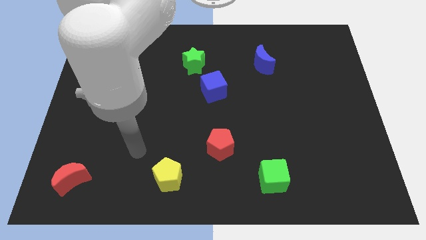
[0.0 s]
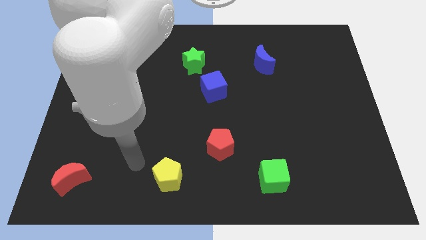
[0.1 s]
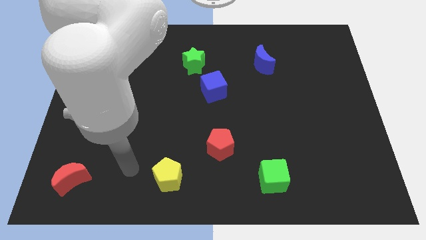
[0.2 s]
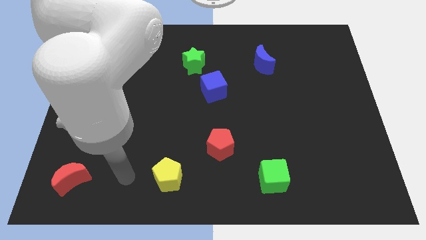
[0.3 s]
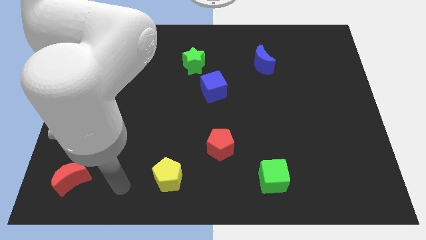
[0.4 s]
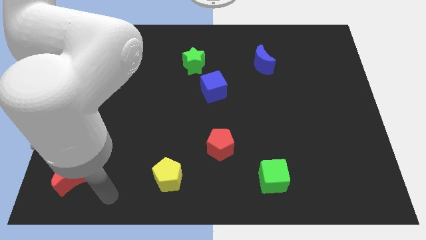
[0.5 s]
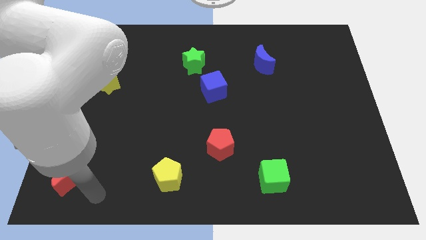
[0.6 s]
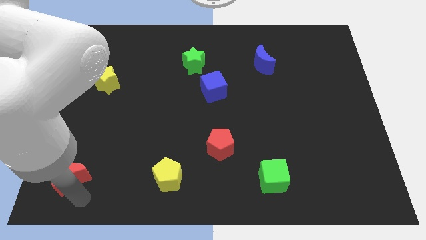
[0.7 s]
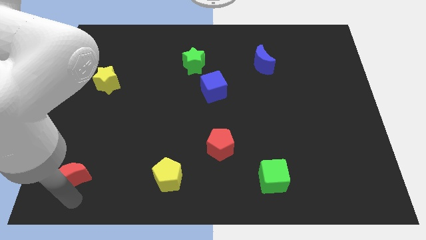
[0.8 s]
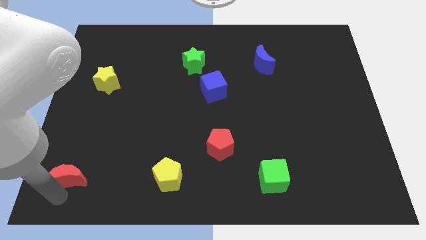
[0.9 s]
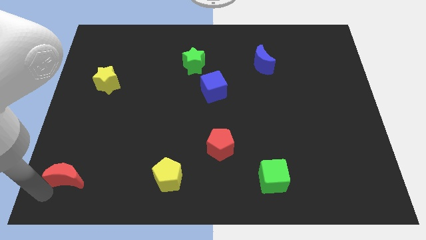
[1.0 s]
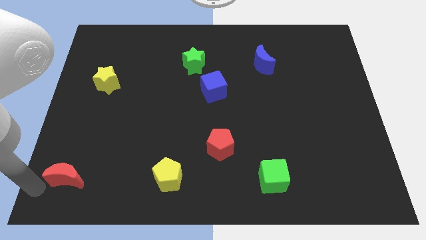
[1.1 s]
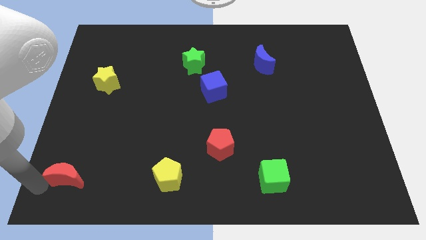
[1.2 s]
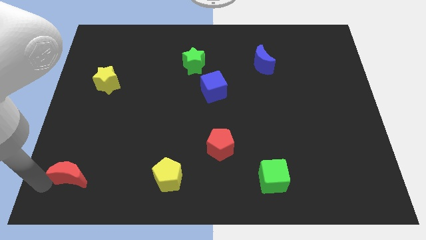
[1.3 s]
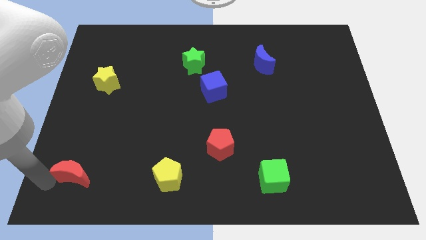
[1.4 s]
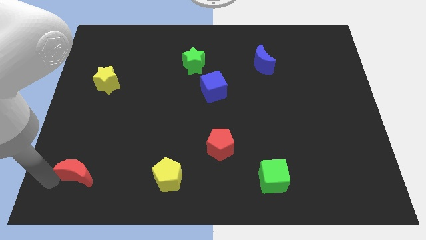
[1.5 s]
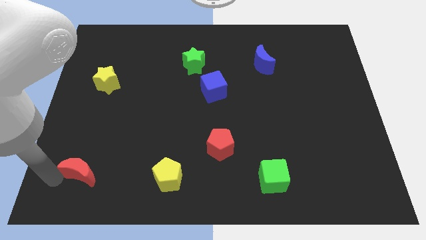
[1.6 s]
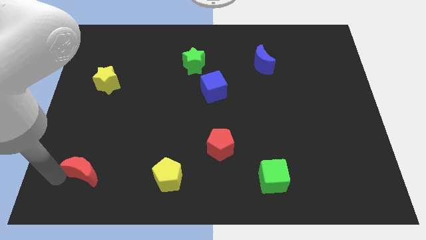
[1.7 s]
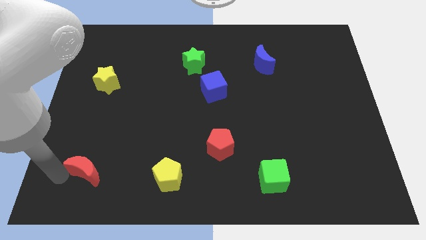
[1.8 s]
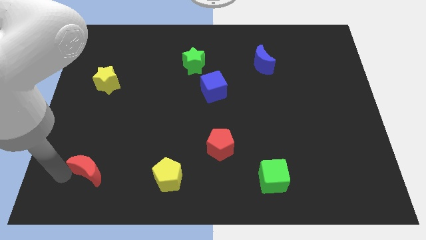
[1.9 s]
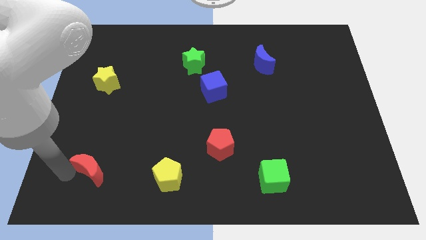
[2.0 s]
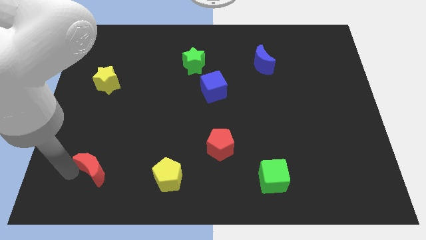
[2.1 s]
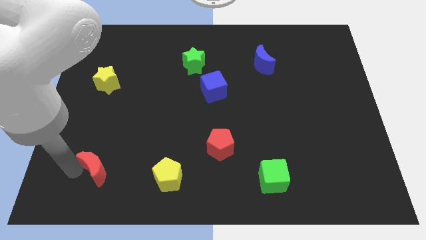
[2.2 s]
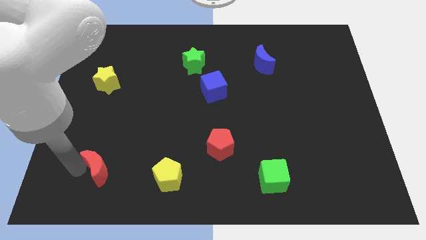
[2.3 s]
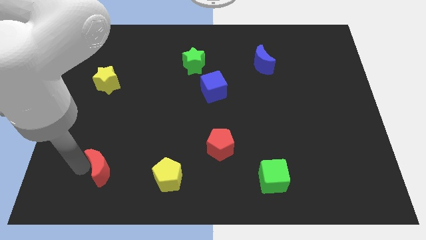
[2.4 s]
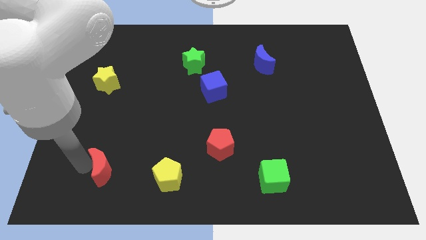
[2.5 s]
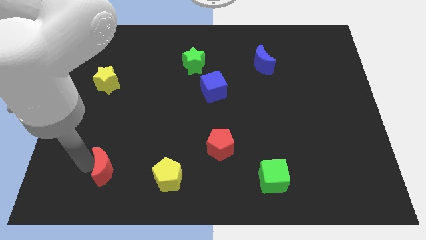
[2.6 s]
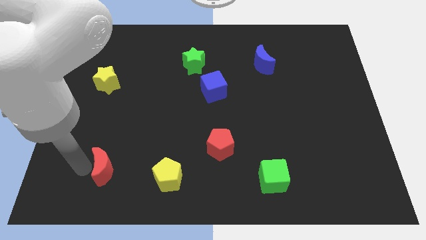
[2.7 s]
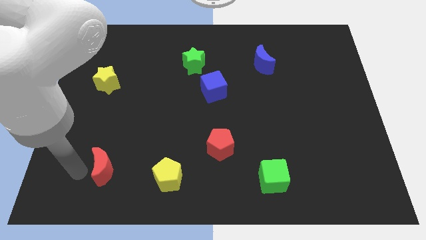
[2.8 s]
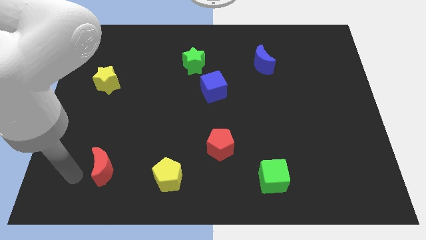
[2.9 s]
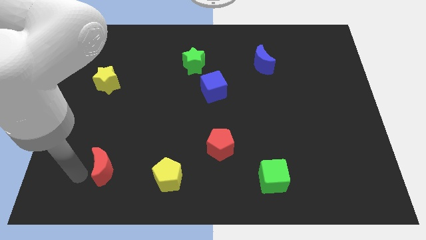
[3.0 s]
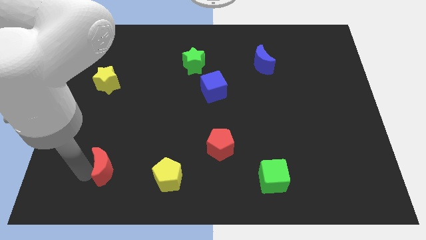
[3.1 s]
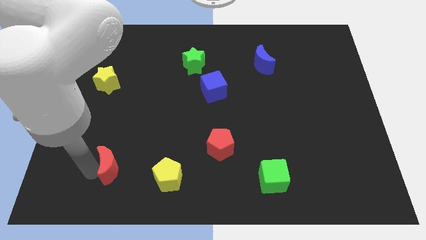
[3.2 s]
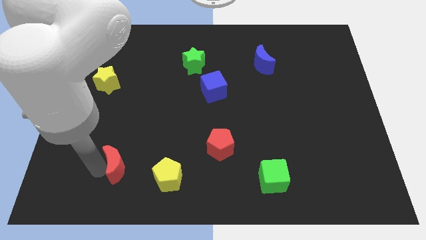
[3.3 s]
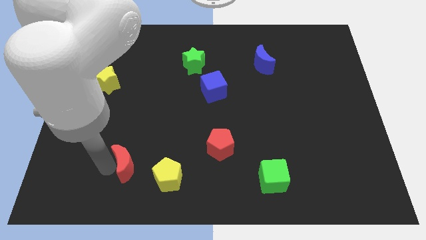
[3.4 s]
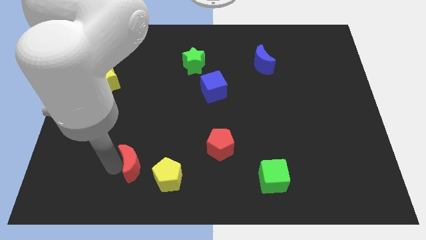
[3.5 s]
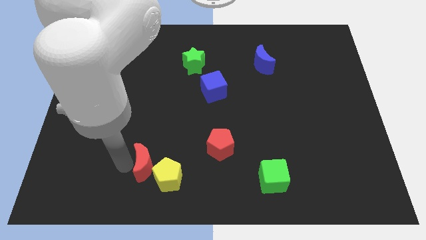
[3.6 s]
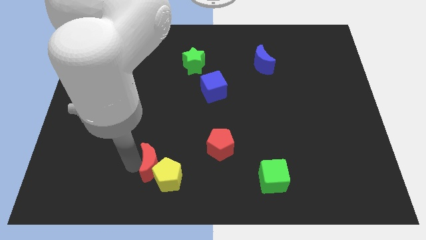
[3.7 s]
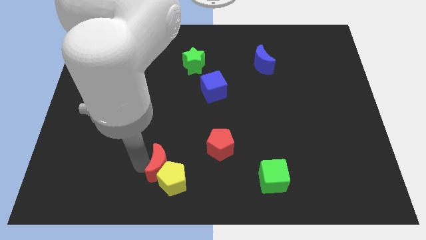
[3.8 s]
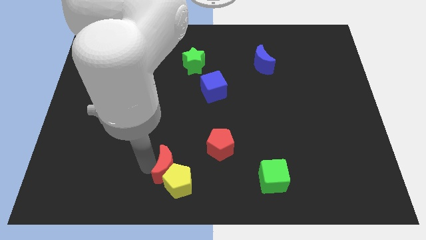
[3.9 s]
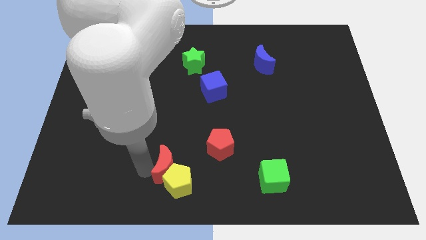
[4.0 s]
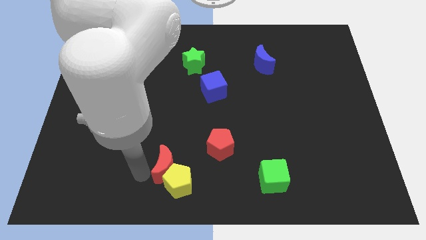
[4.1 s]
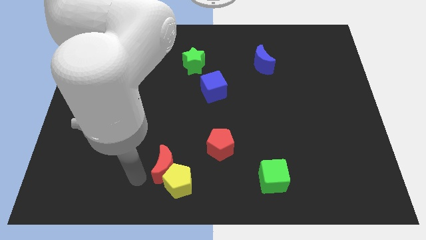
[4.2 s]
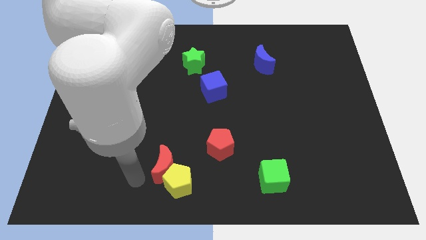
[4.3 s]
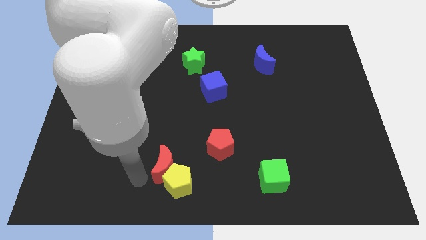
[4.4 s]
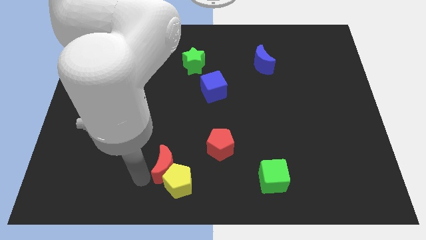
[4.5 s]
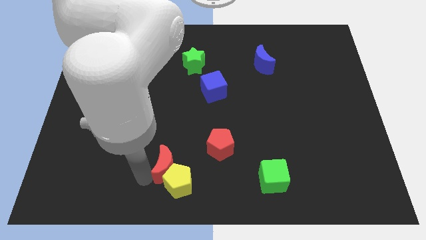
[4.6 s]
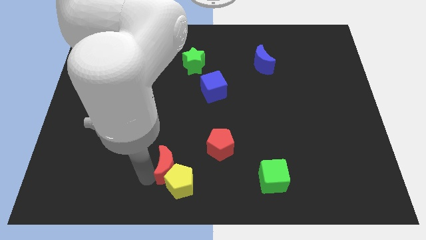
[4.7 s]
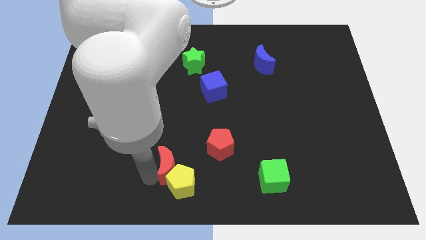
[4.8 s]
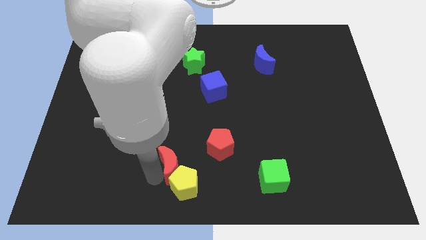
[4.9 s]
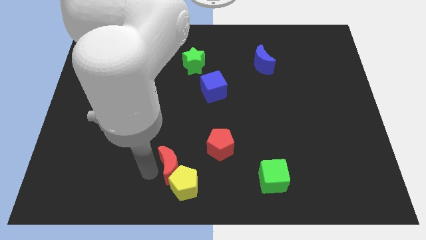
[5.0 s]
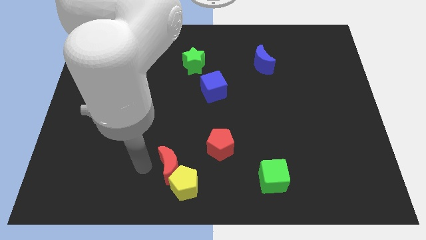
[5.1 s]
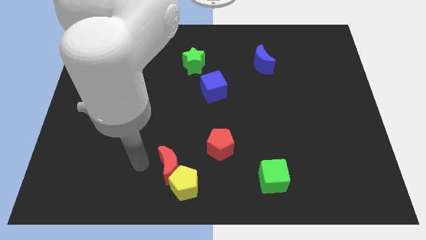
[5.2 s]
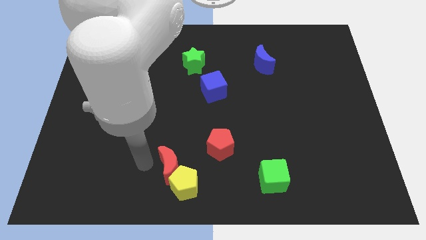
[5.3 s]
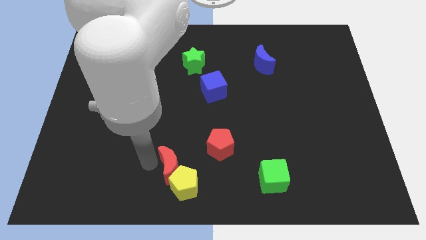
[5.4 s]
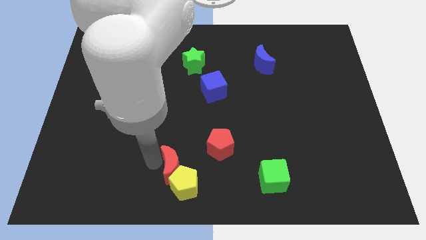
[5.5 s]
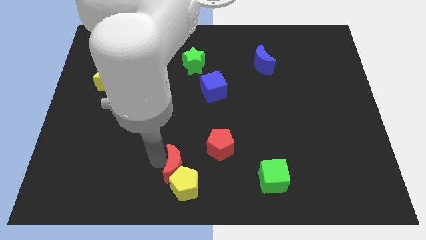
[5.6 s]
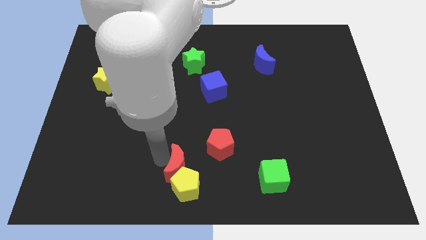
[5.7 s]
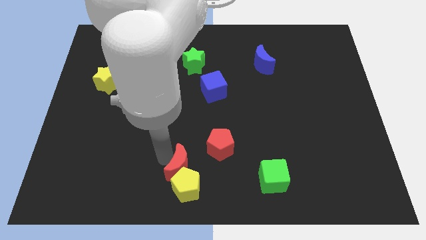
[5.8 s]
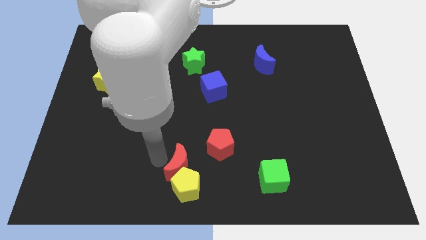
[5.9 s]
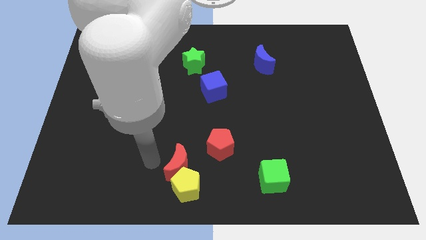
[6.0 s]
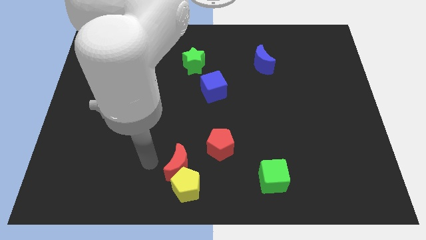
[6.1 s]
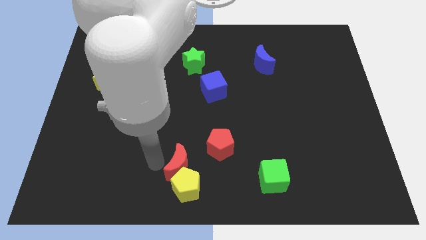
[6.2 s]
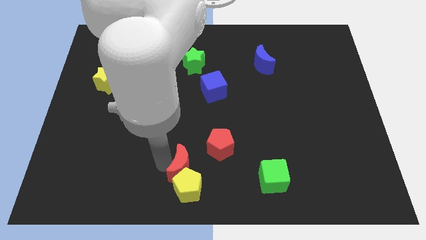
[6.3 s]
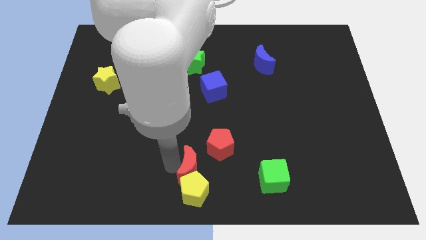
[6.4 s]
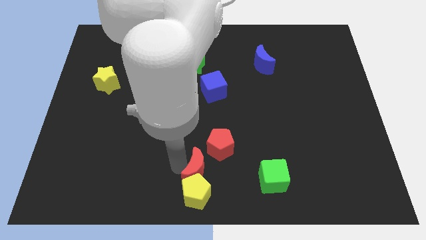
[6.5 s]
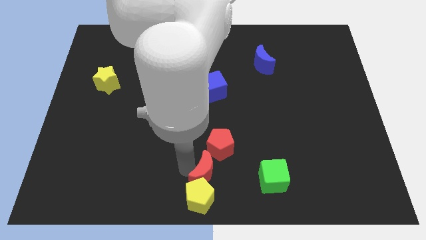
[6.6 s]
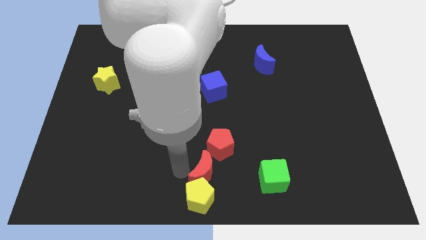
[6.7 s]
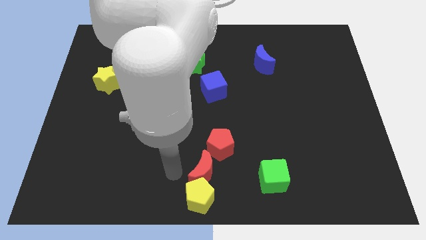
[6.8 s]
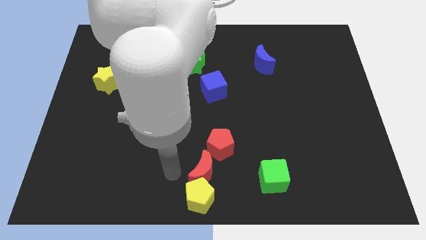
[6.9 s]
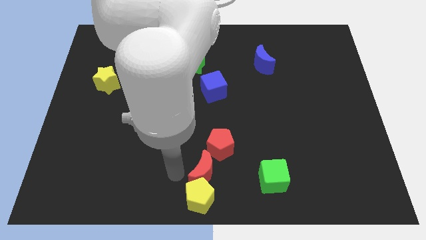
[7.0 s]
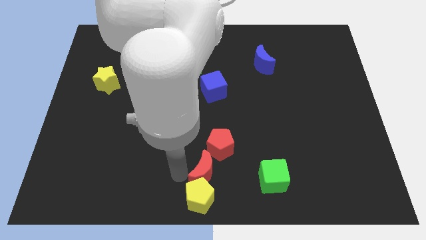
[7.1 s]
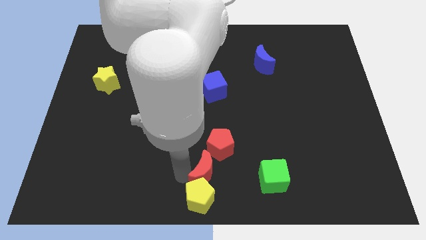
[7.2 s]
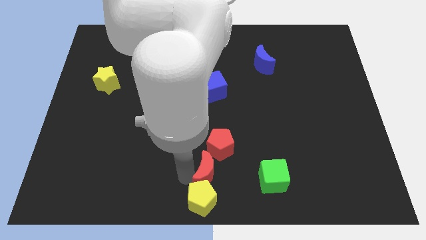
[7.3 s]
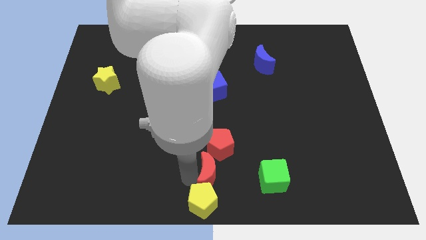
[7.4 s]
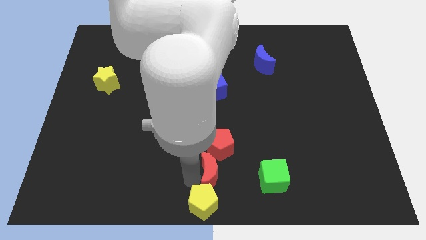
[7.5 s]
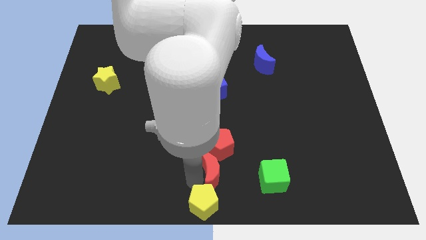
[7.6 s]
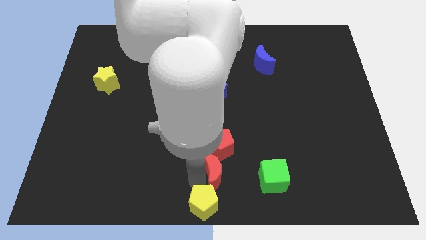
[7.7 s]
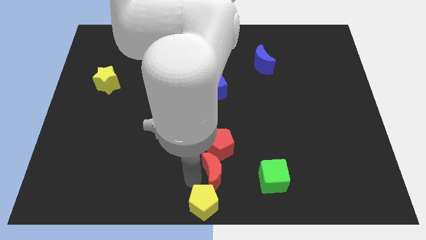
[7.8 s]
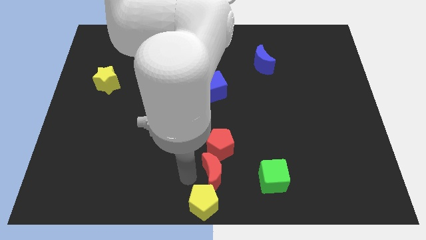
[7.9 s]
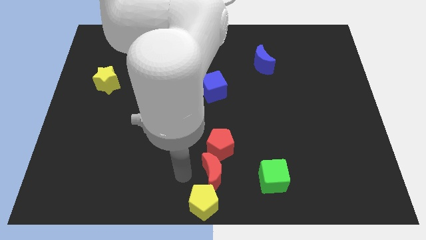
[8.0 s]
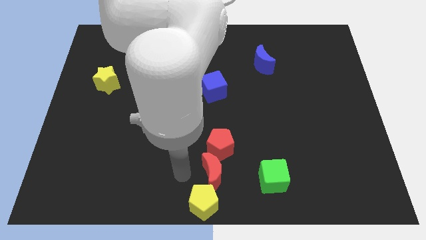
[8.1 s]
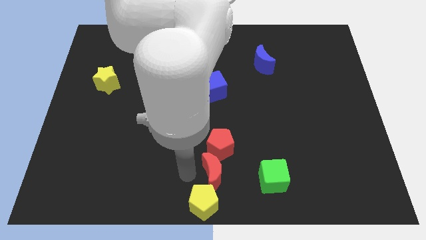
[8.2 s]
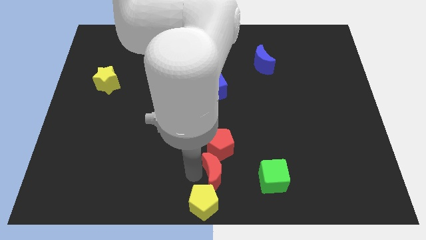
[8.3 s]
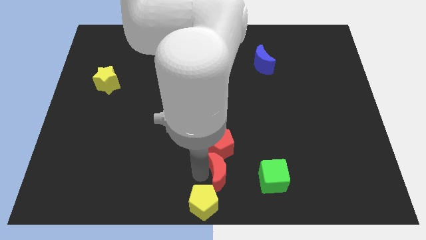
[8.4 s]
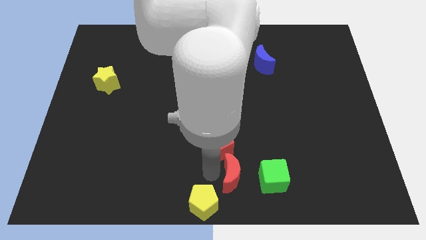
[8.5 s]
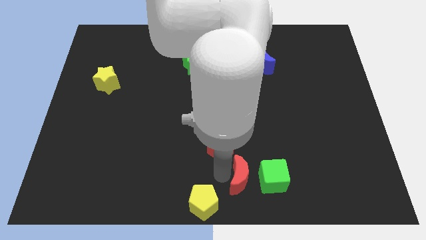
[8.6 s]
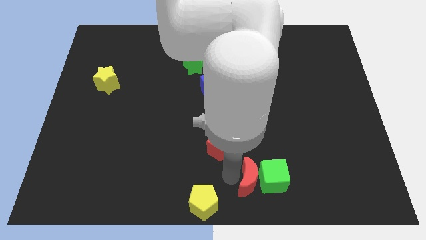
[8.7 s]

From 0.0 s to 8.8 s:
slide the red moon to the green cube
